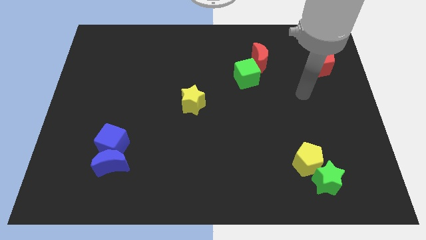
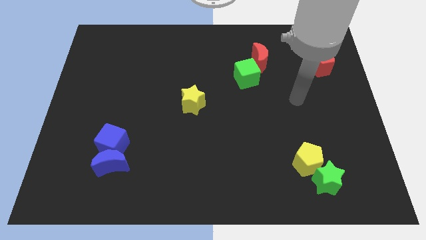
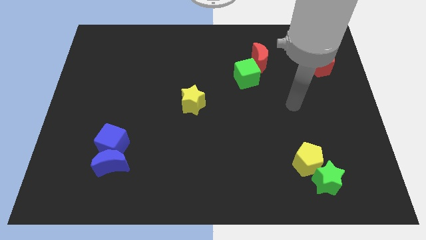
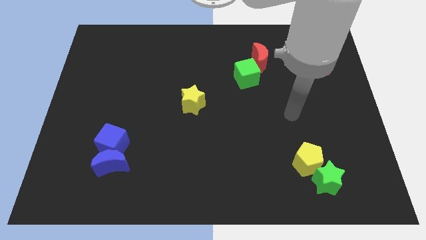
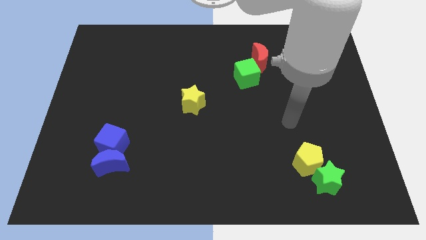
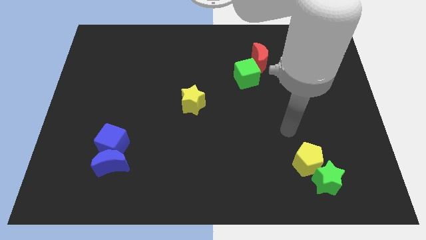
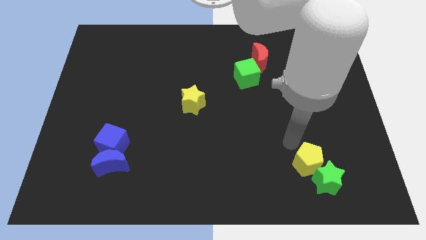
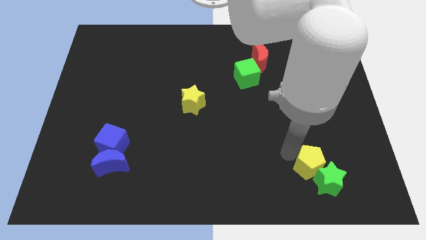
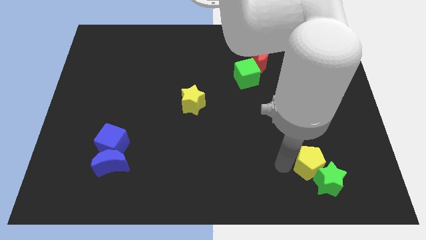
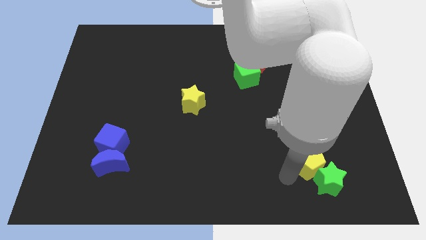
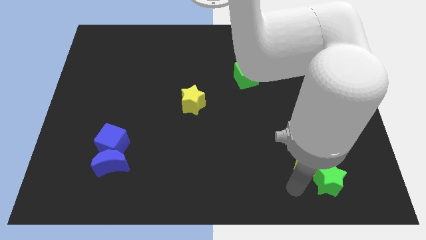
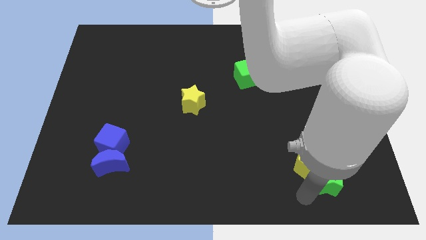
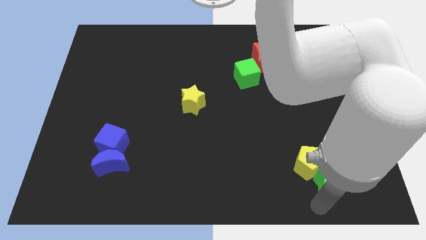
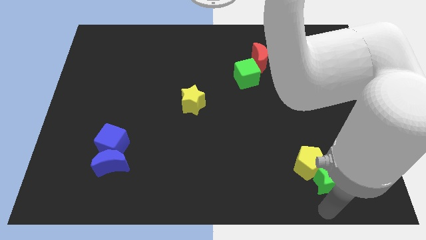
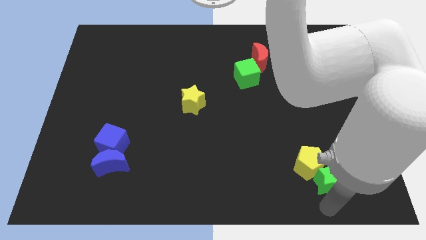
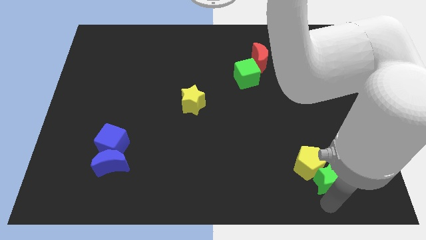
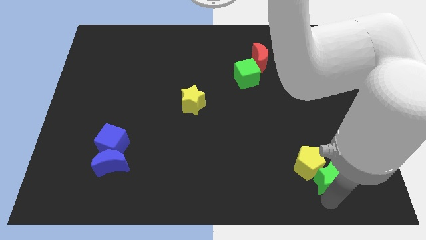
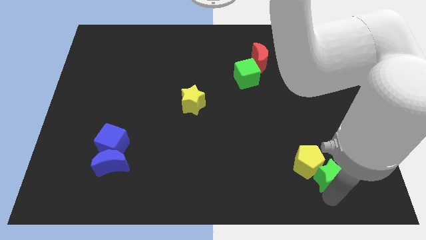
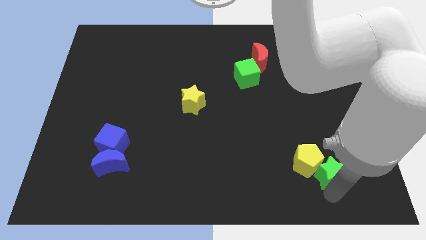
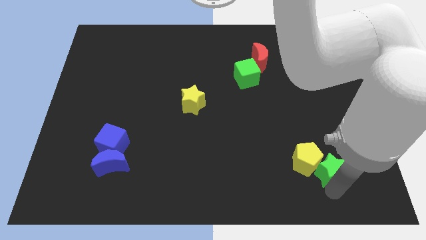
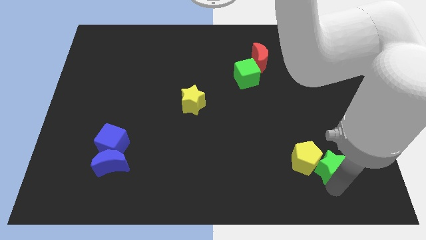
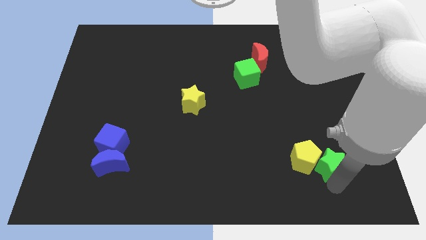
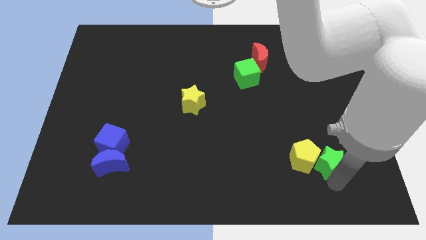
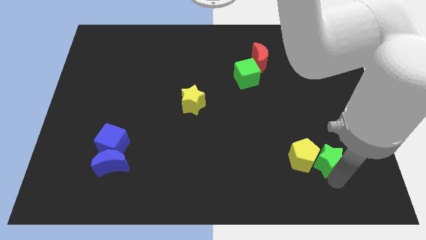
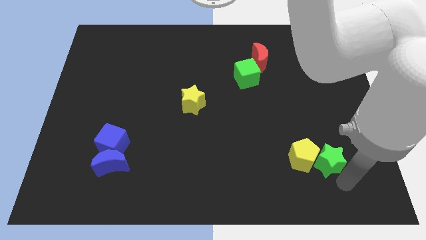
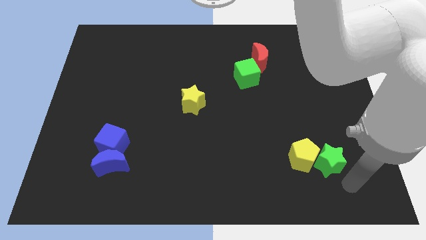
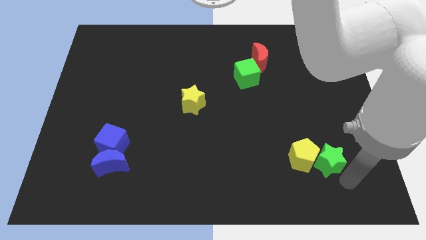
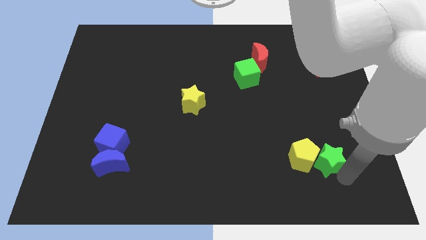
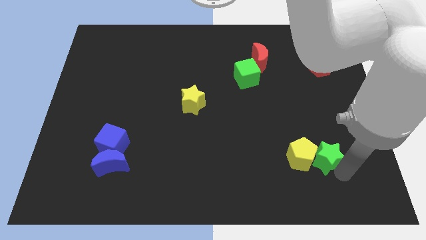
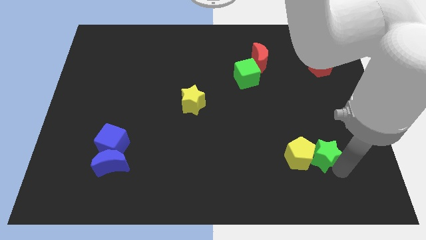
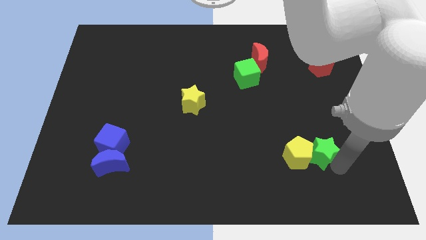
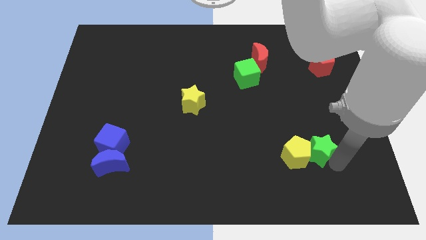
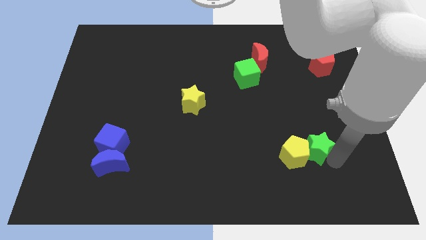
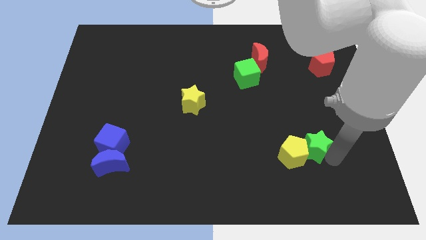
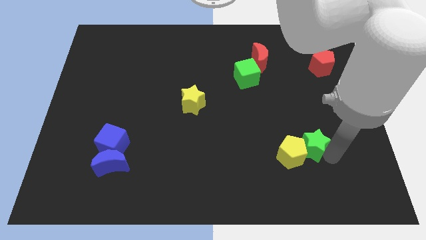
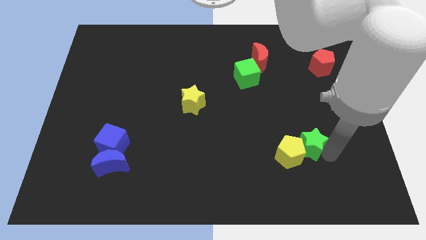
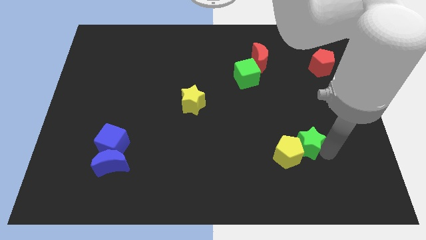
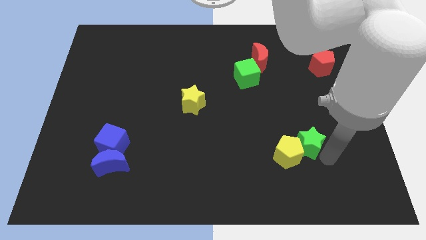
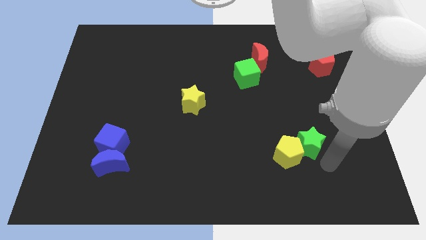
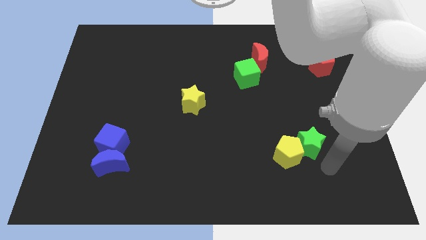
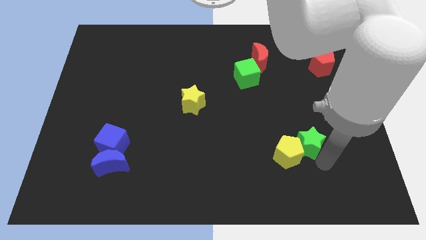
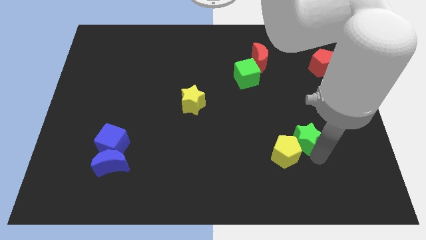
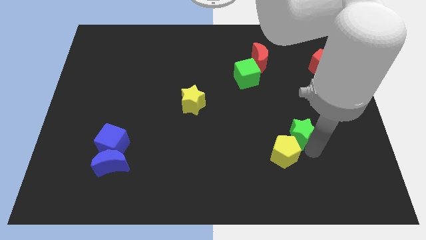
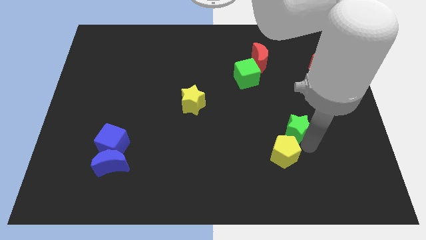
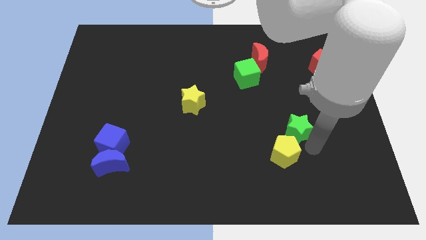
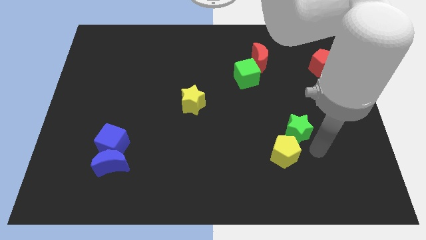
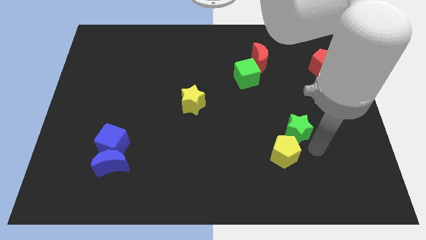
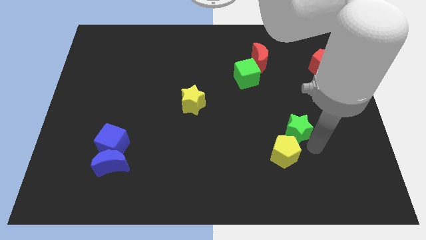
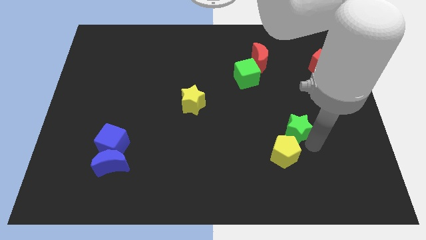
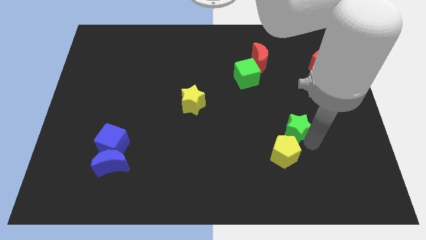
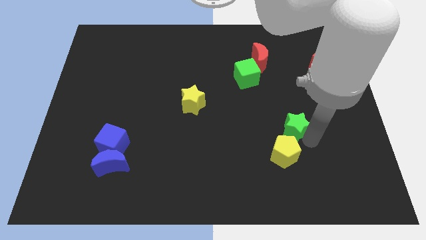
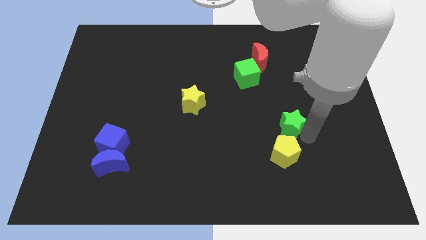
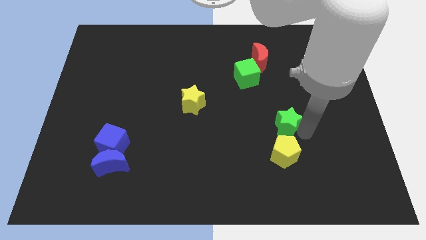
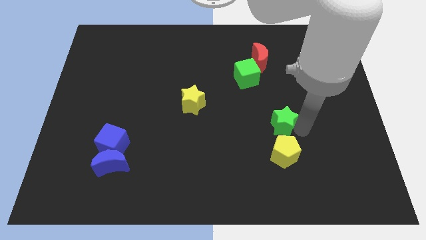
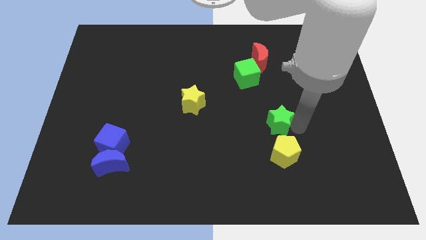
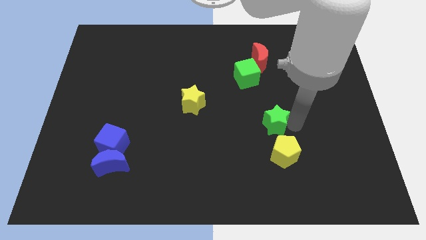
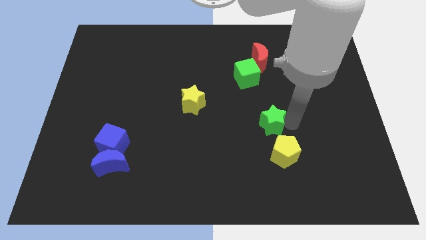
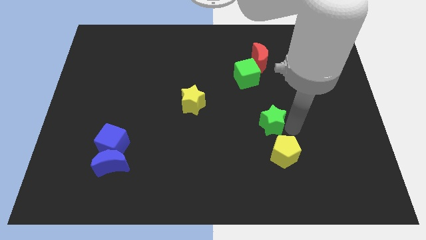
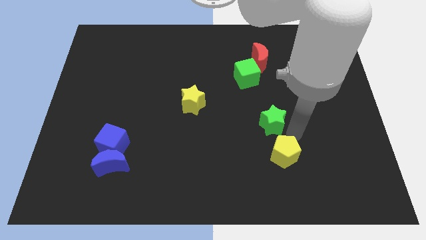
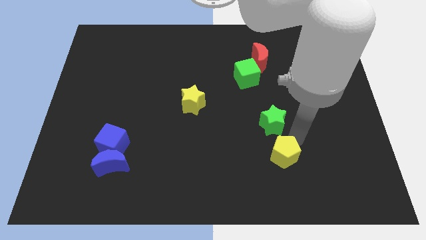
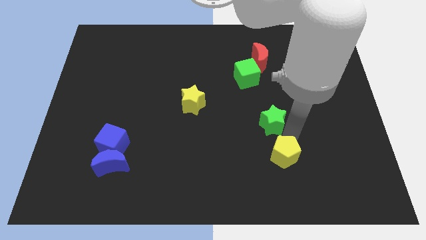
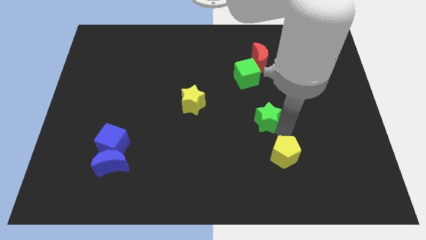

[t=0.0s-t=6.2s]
push the green star below the green cube

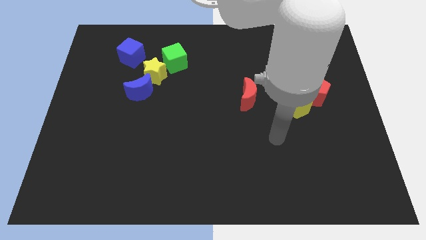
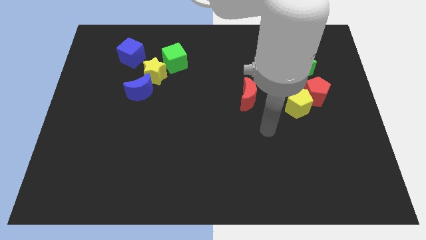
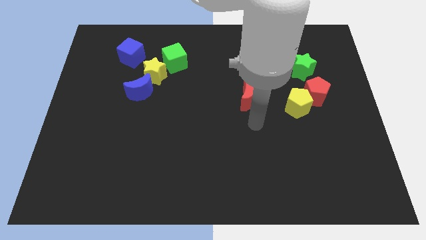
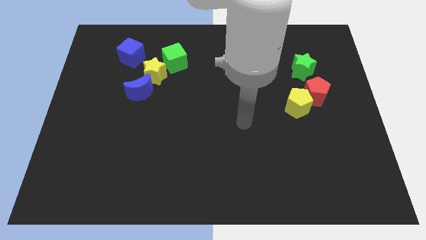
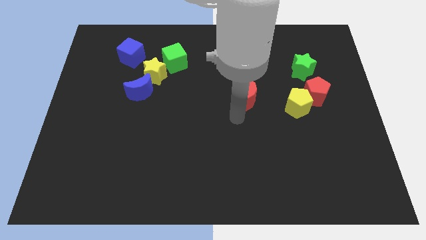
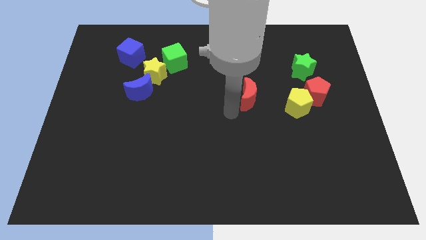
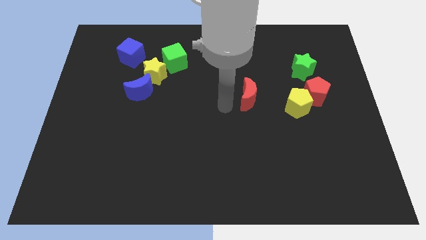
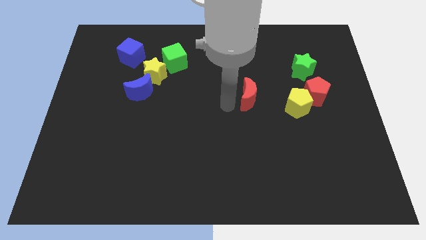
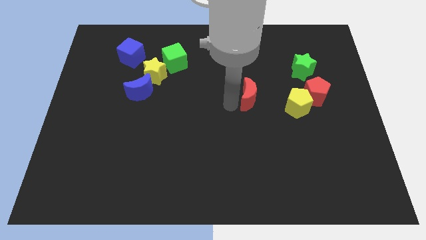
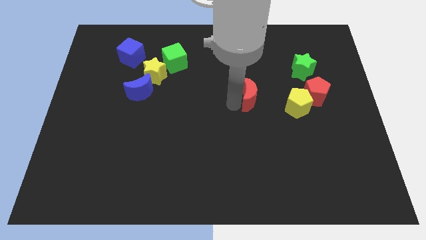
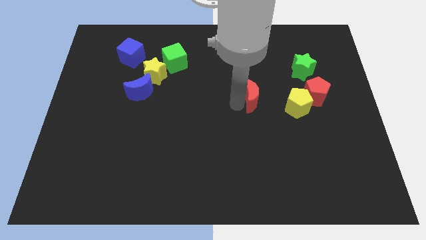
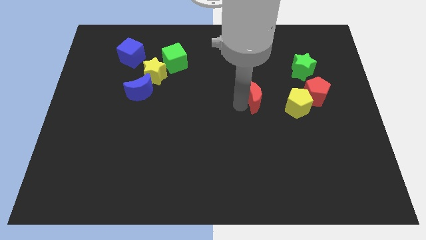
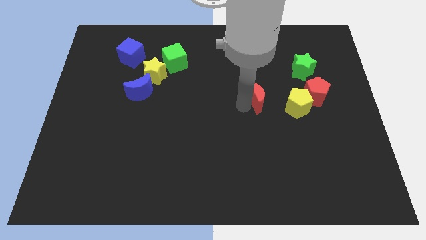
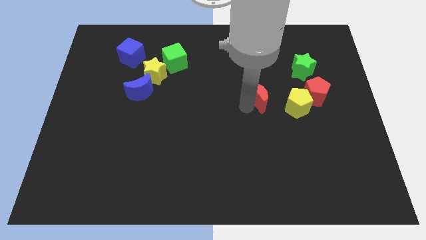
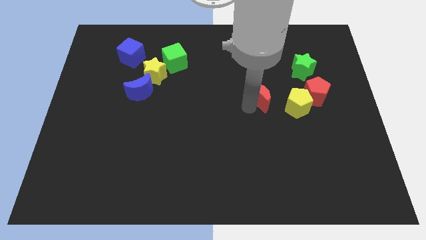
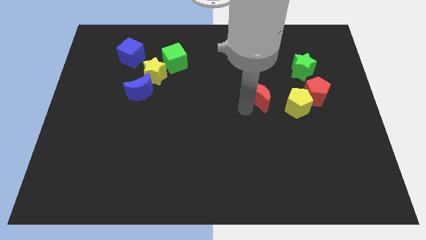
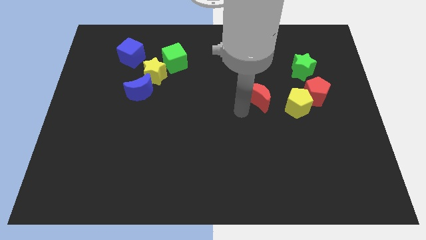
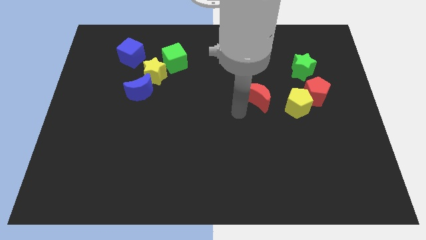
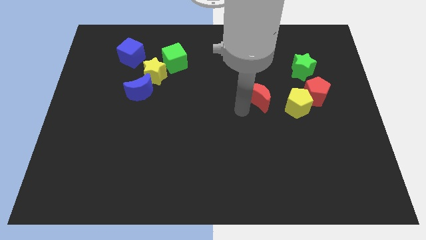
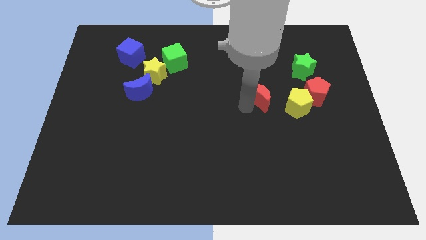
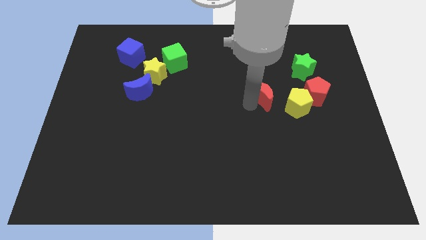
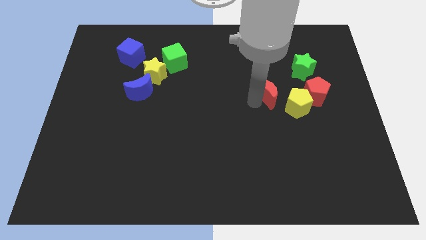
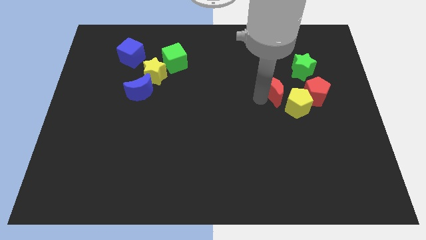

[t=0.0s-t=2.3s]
move the red moon to the bottom left of the green star
